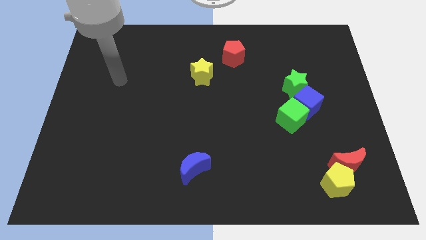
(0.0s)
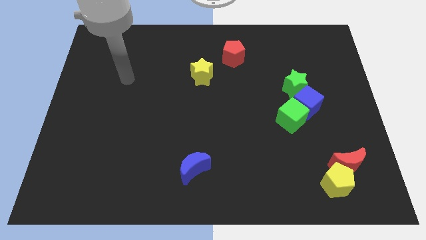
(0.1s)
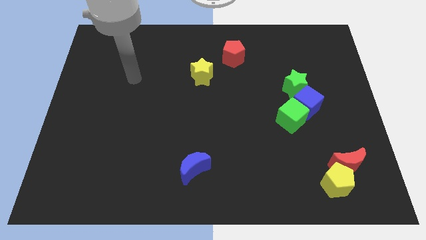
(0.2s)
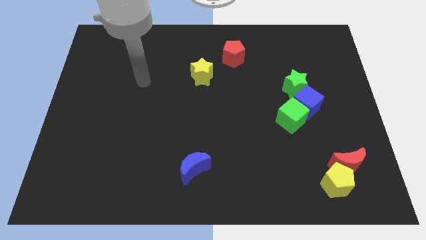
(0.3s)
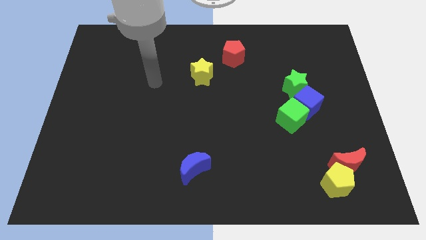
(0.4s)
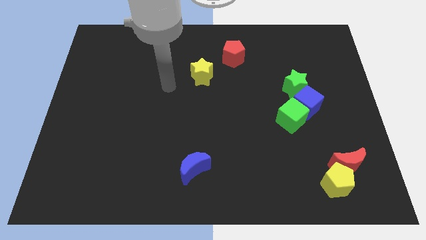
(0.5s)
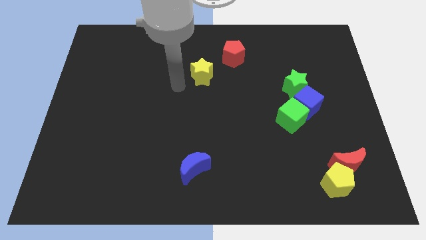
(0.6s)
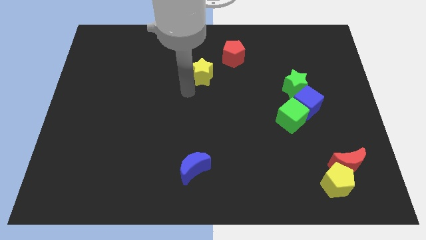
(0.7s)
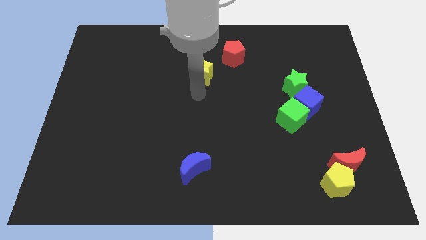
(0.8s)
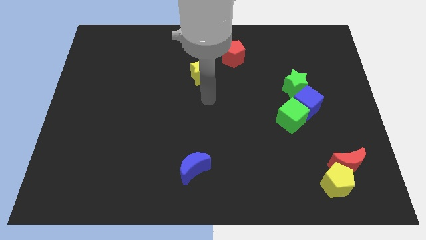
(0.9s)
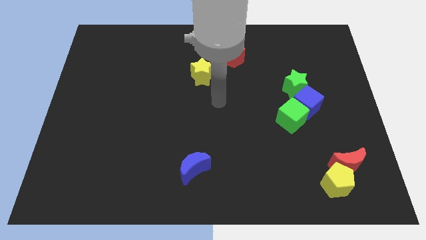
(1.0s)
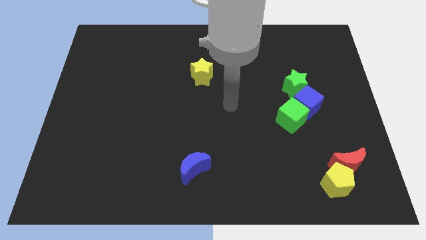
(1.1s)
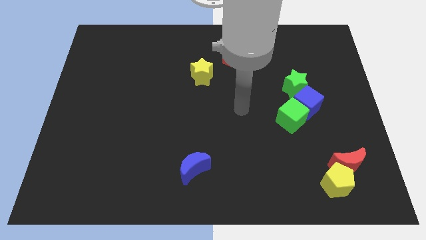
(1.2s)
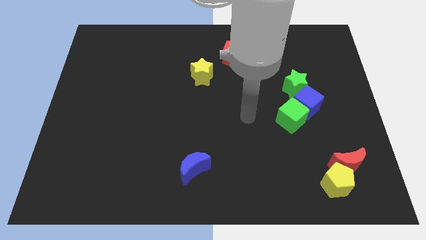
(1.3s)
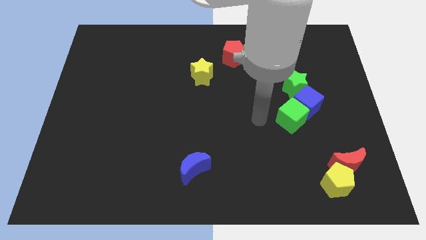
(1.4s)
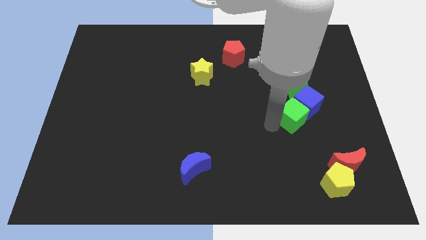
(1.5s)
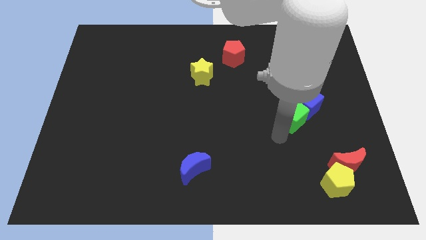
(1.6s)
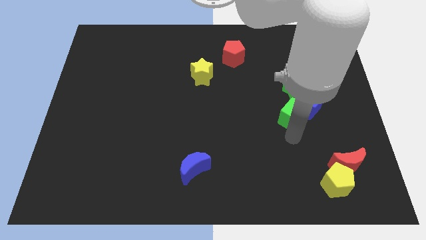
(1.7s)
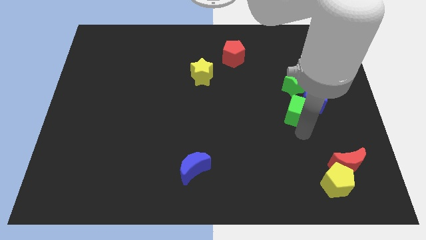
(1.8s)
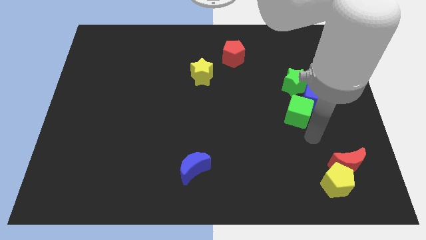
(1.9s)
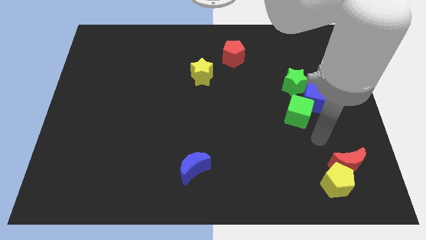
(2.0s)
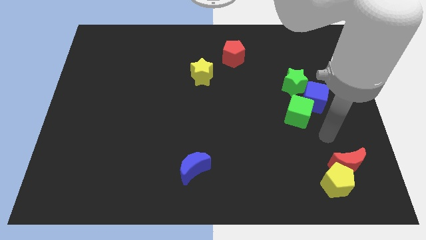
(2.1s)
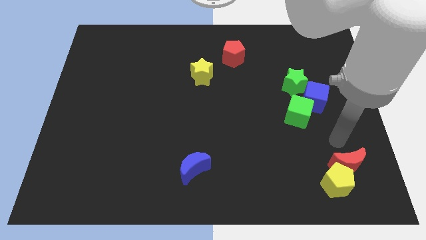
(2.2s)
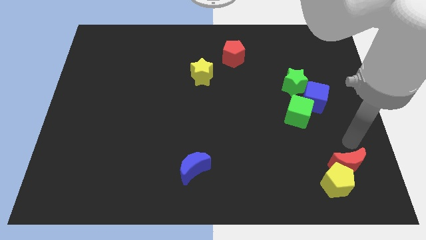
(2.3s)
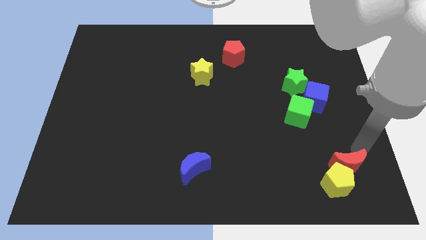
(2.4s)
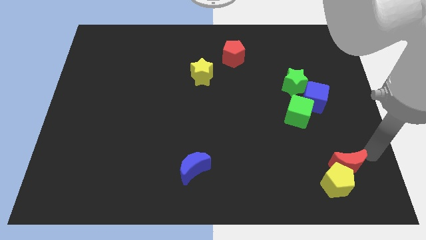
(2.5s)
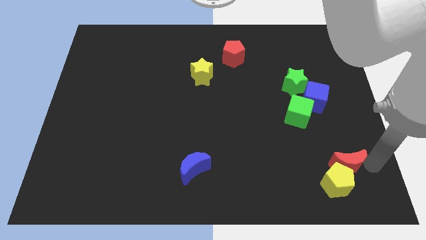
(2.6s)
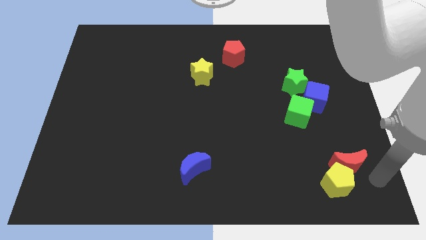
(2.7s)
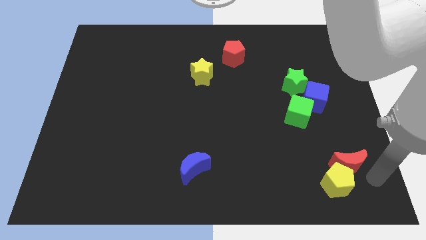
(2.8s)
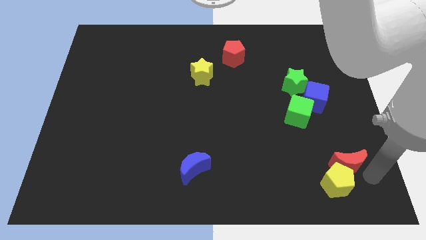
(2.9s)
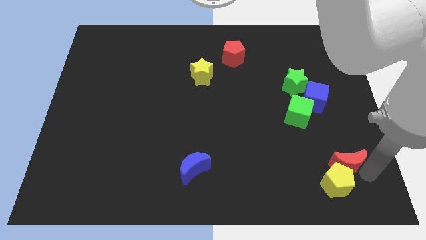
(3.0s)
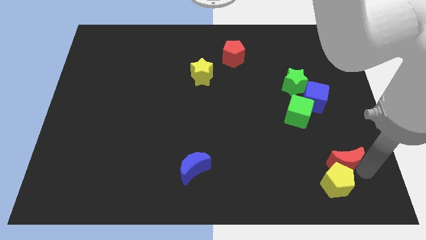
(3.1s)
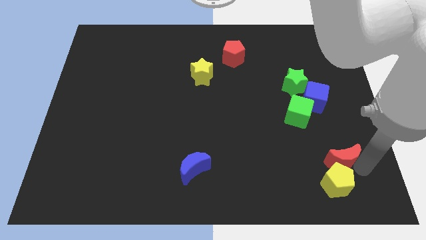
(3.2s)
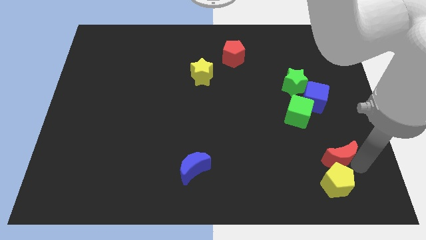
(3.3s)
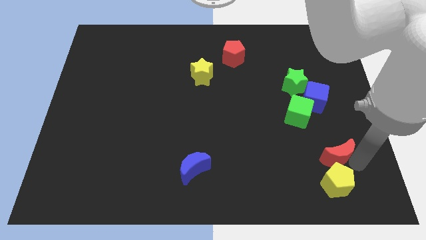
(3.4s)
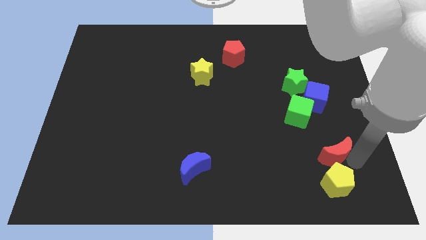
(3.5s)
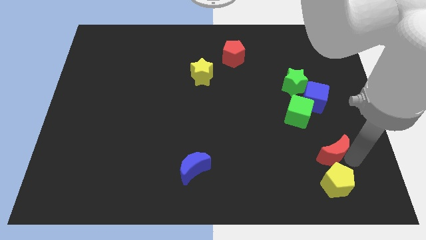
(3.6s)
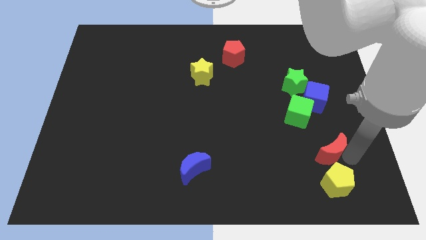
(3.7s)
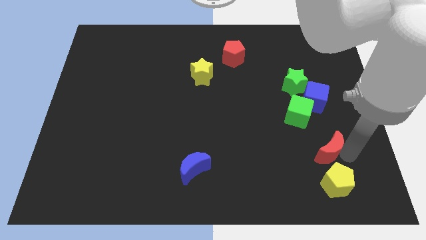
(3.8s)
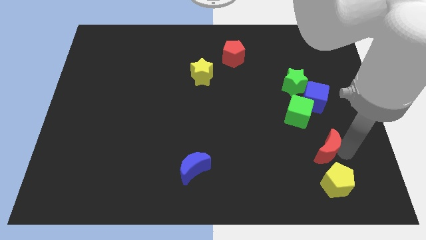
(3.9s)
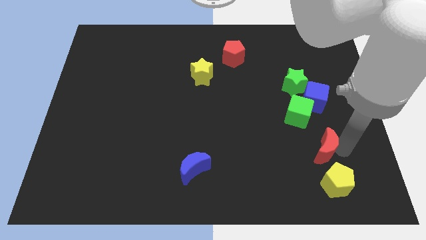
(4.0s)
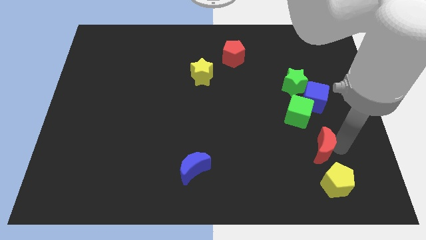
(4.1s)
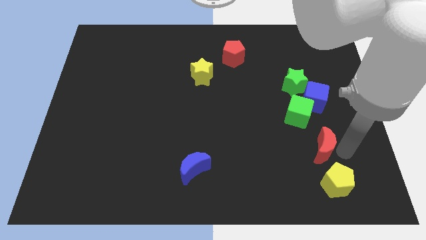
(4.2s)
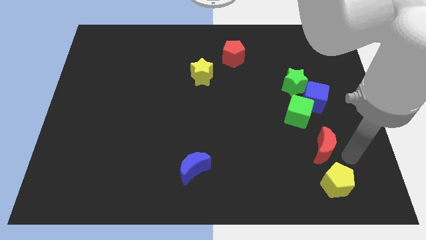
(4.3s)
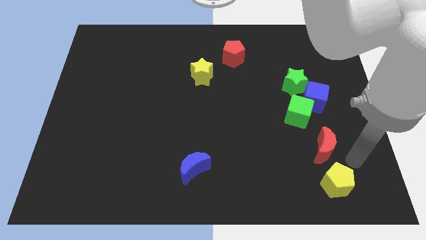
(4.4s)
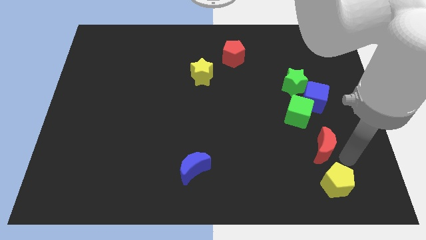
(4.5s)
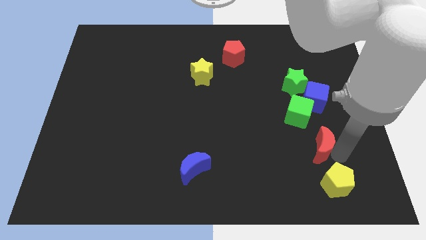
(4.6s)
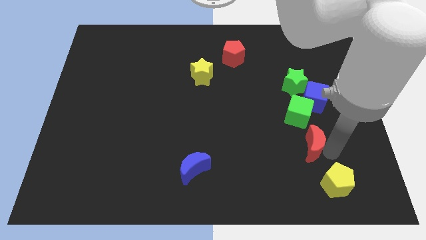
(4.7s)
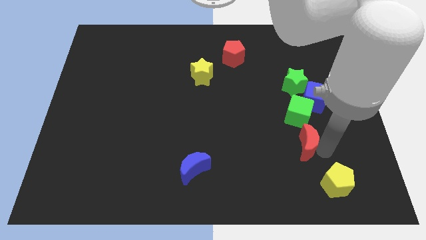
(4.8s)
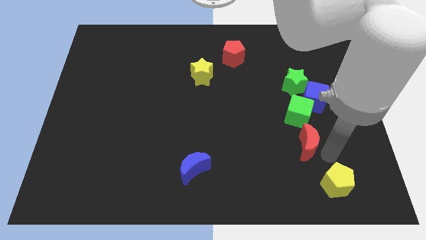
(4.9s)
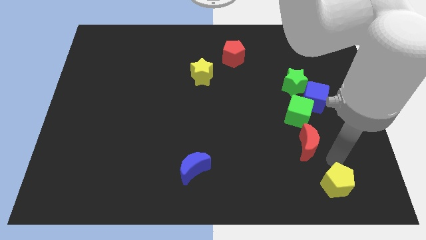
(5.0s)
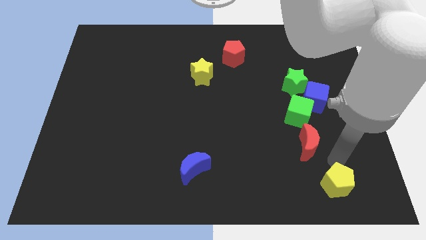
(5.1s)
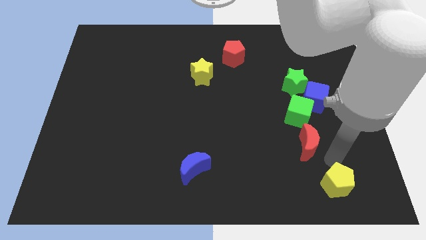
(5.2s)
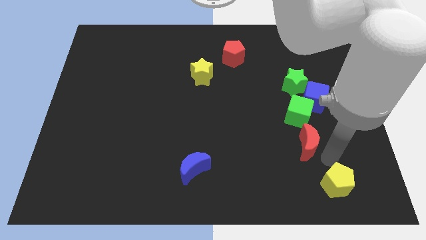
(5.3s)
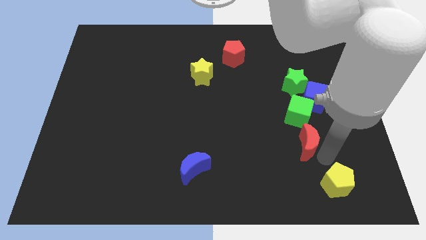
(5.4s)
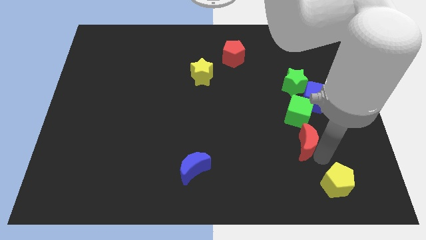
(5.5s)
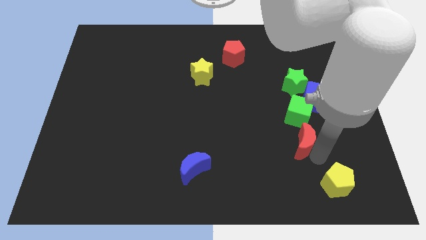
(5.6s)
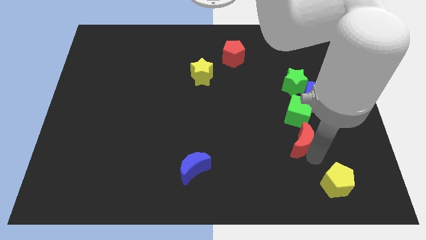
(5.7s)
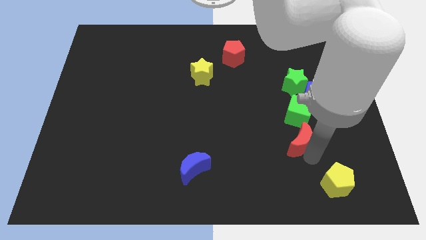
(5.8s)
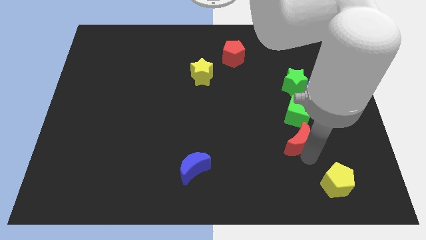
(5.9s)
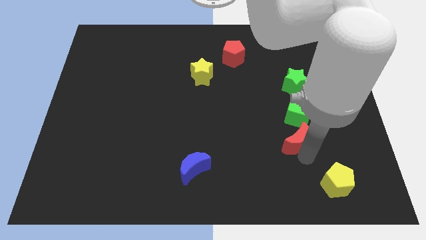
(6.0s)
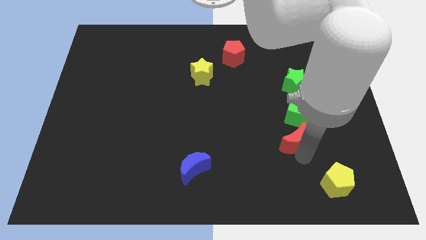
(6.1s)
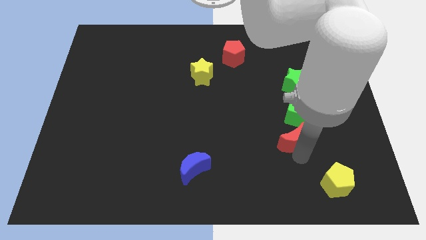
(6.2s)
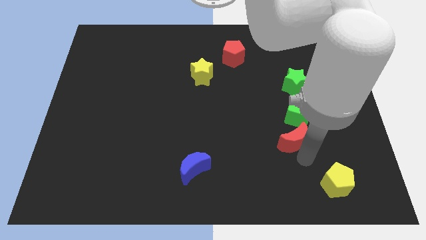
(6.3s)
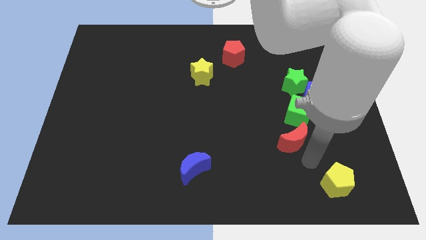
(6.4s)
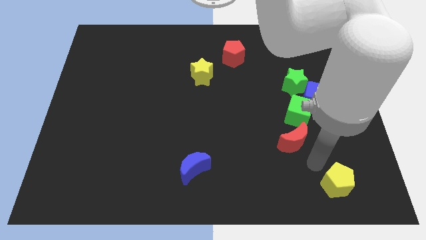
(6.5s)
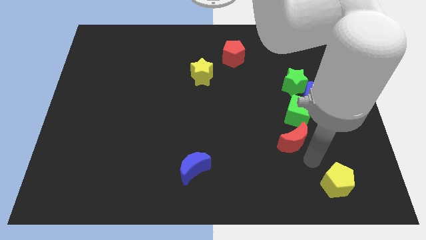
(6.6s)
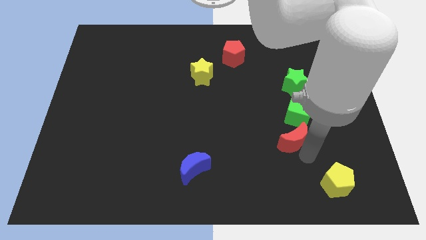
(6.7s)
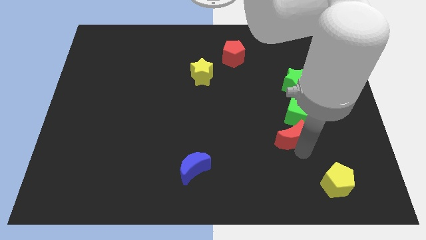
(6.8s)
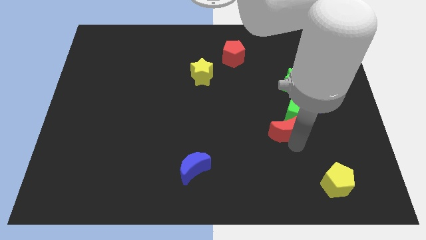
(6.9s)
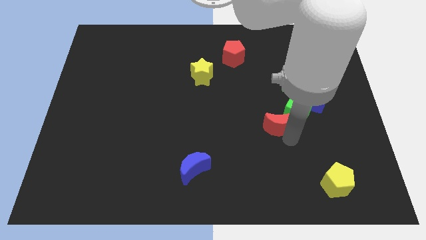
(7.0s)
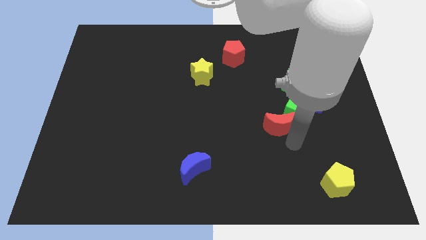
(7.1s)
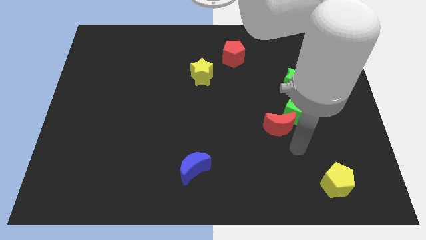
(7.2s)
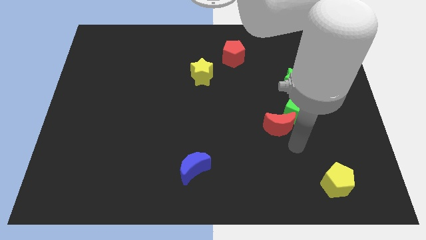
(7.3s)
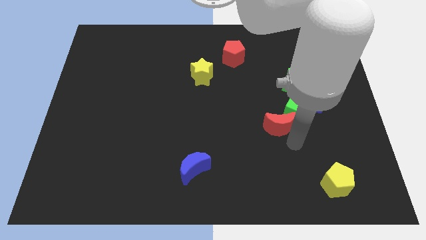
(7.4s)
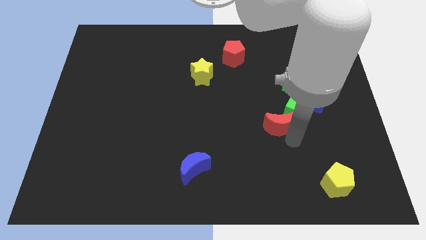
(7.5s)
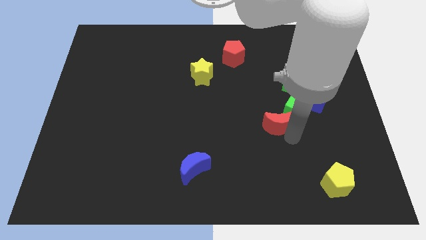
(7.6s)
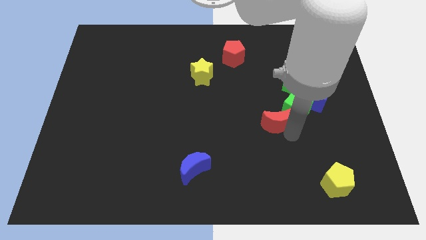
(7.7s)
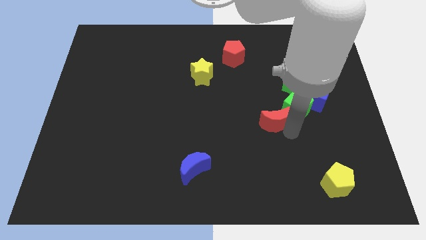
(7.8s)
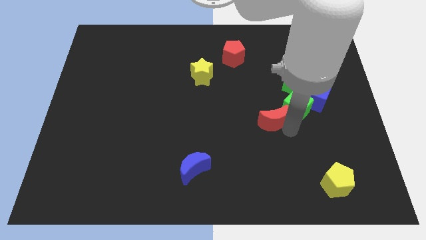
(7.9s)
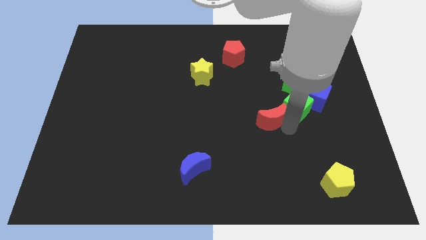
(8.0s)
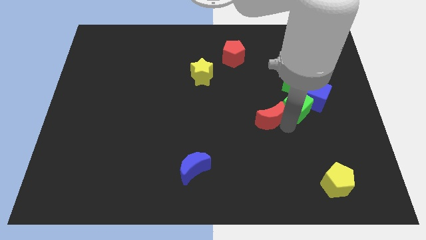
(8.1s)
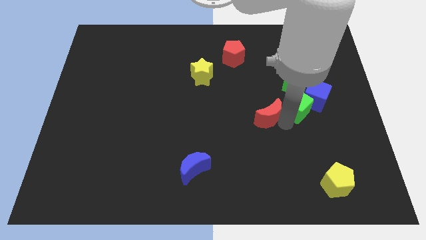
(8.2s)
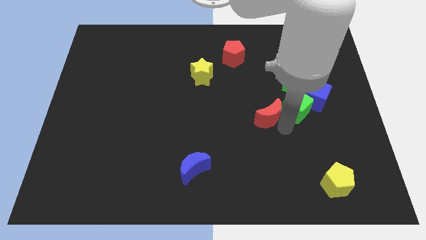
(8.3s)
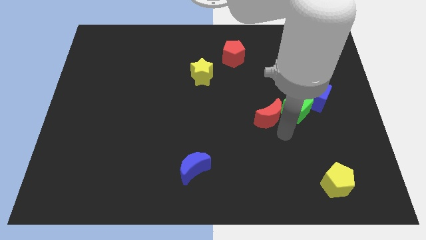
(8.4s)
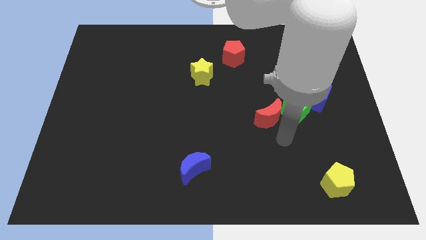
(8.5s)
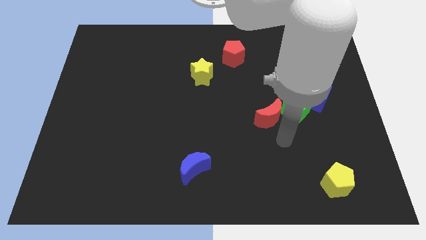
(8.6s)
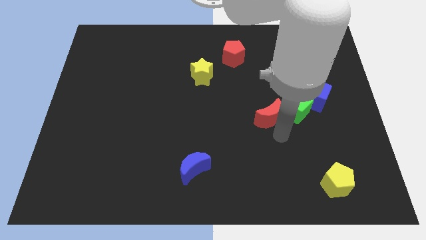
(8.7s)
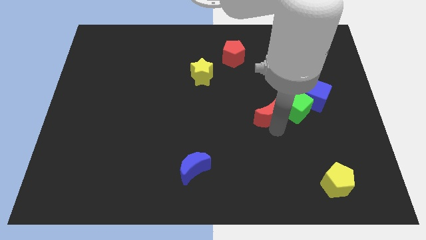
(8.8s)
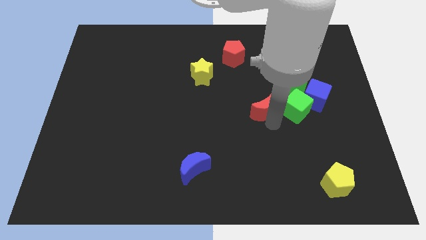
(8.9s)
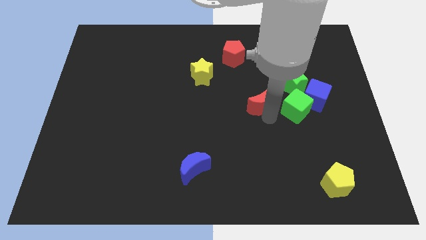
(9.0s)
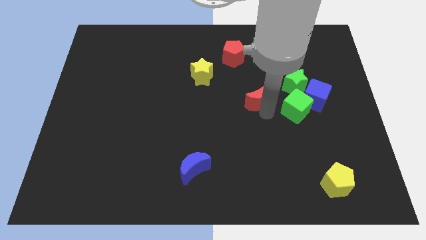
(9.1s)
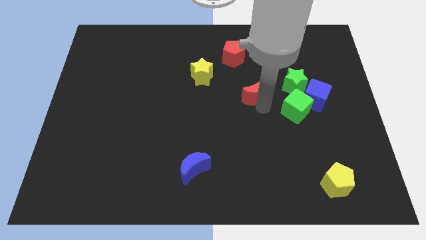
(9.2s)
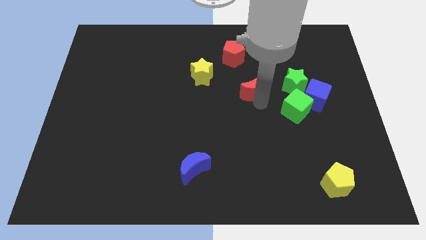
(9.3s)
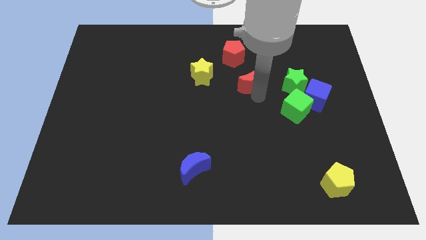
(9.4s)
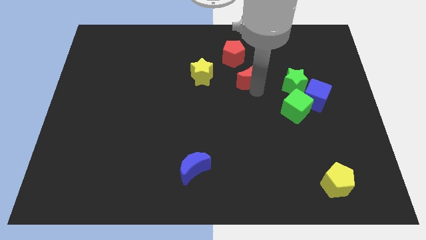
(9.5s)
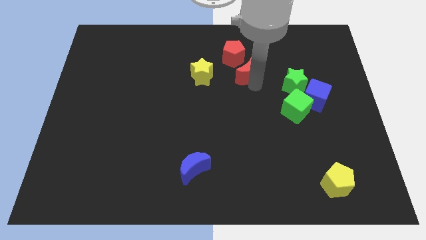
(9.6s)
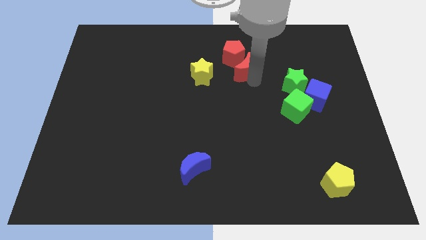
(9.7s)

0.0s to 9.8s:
slide the red moon to the red pentagon
